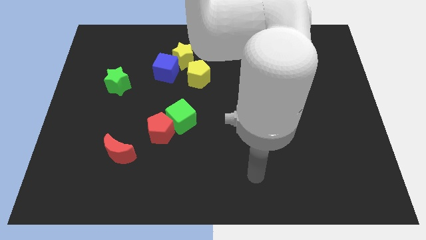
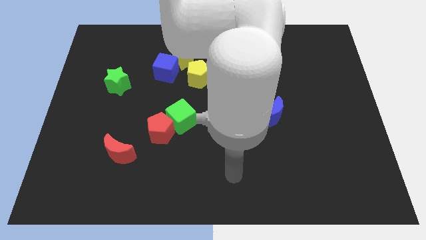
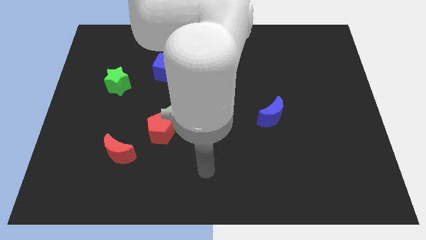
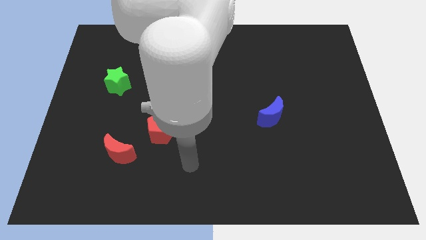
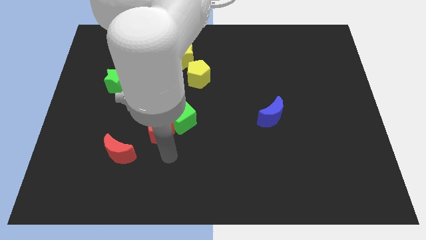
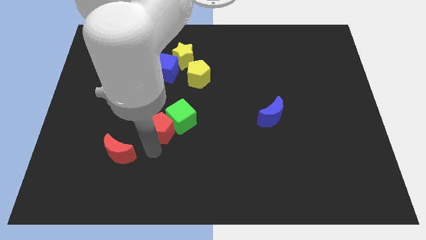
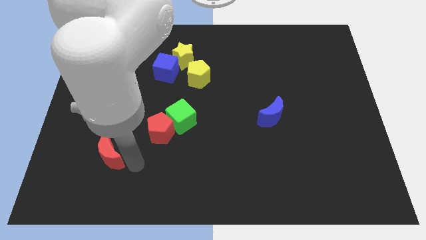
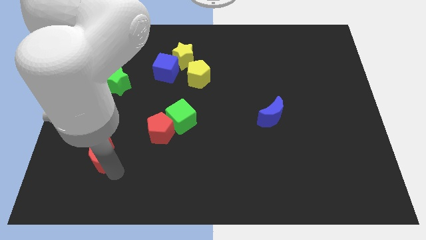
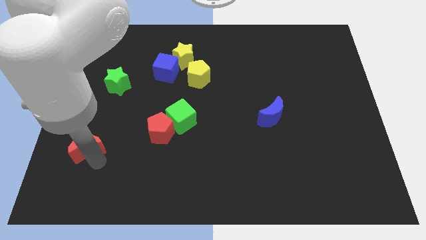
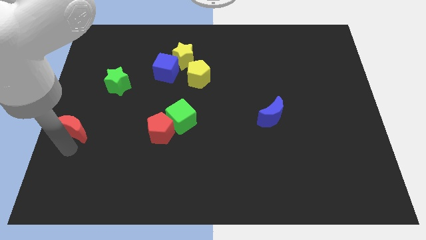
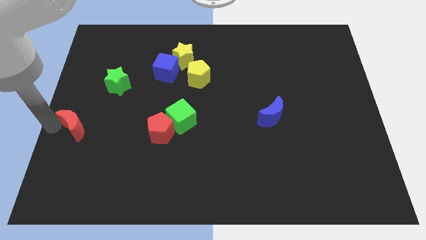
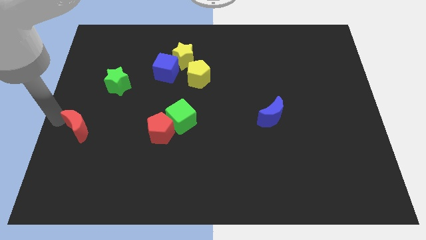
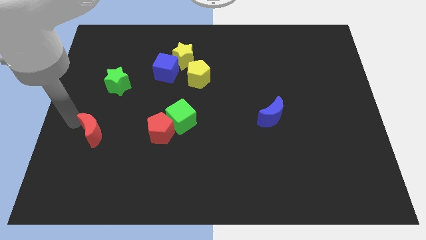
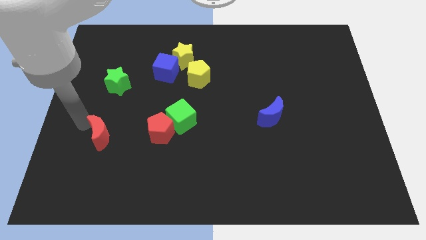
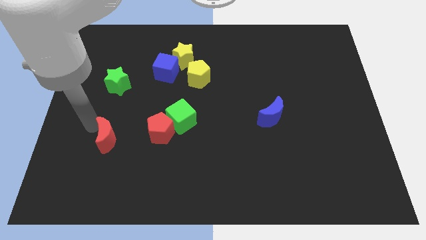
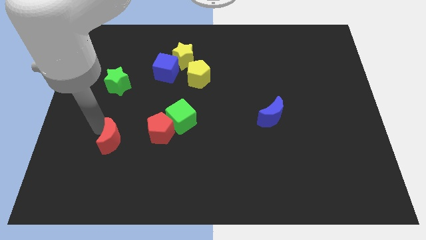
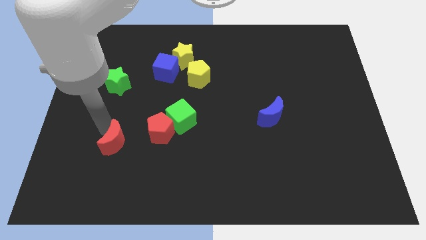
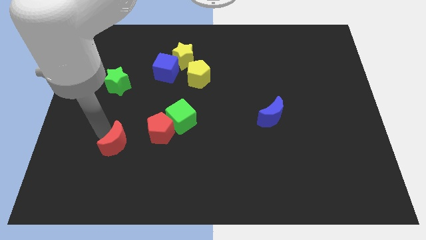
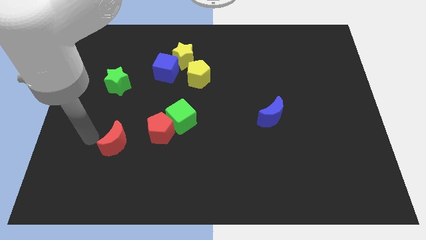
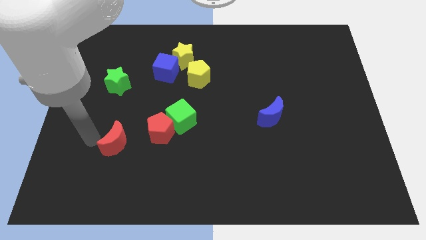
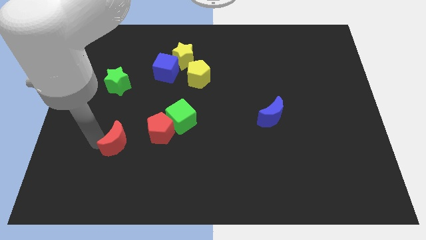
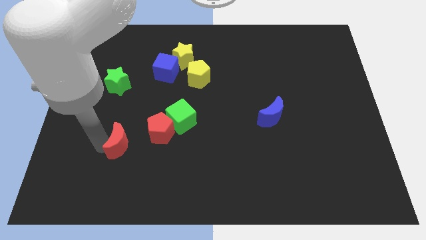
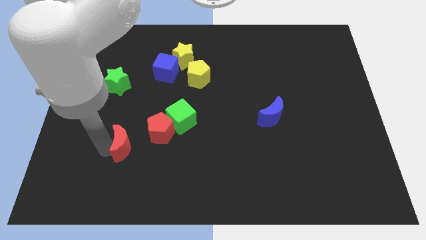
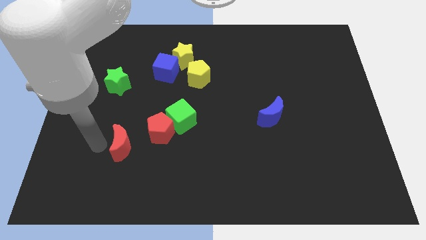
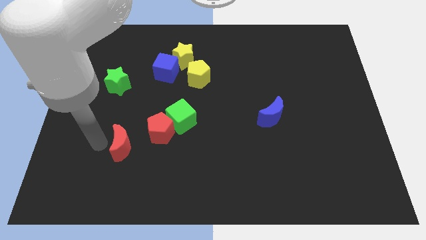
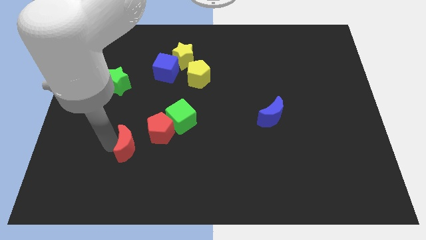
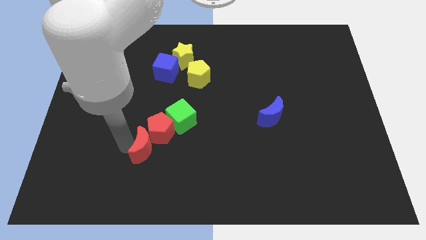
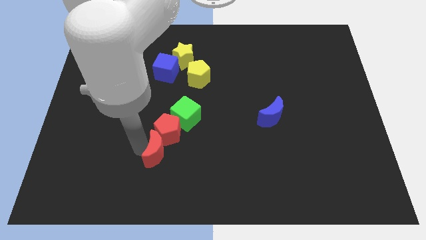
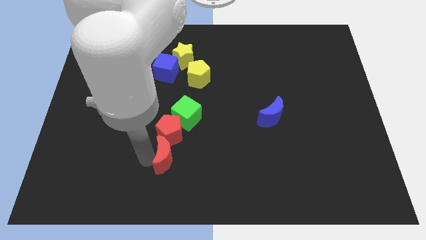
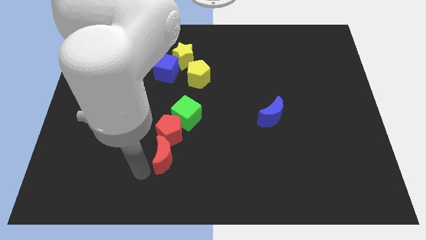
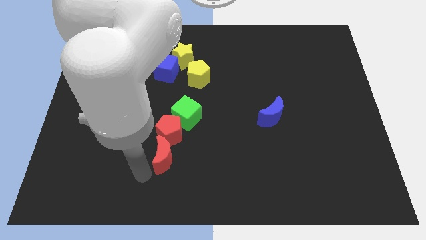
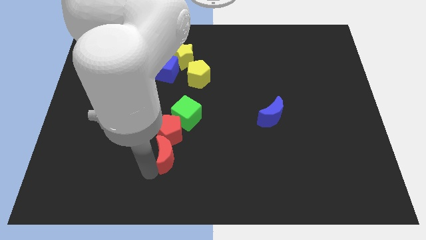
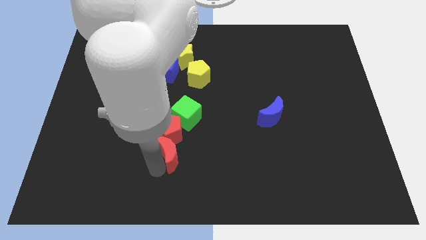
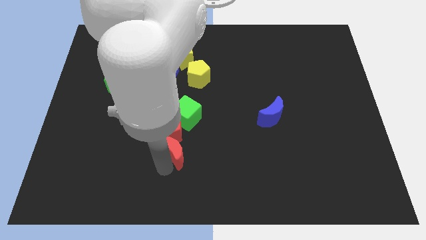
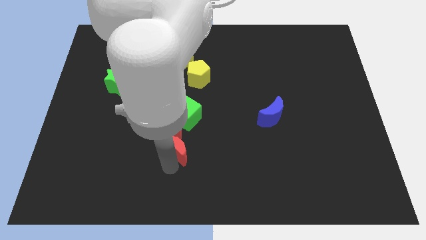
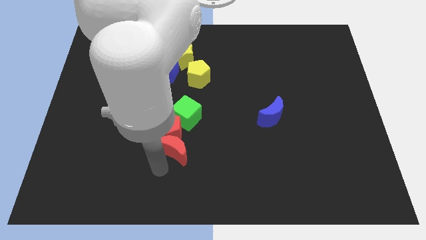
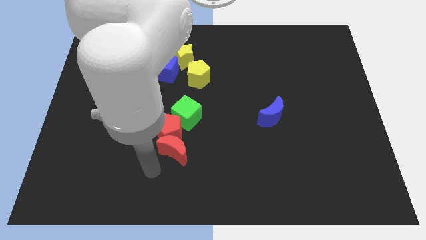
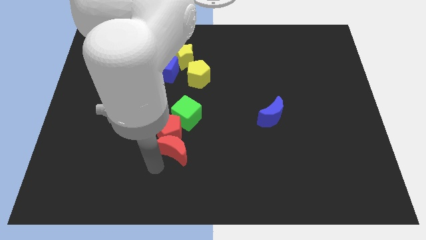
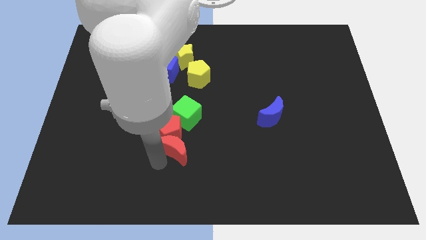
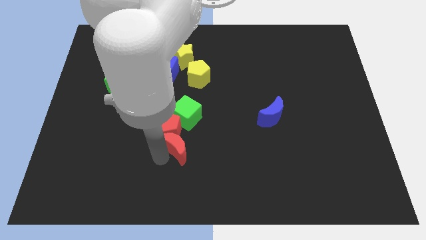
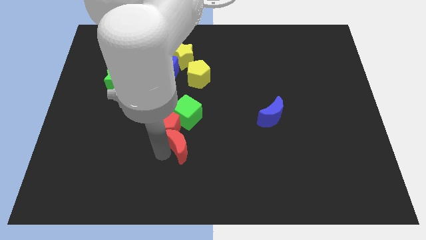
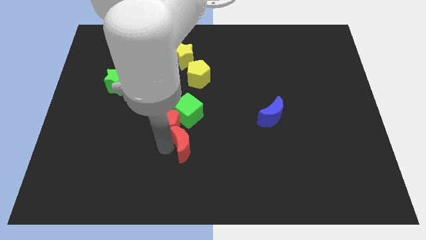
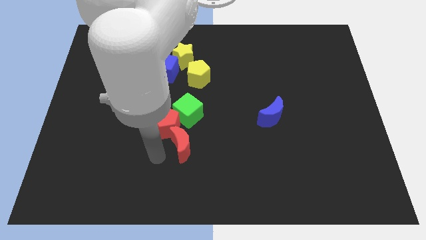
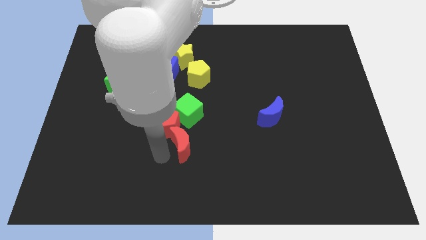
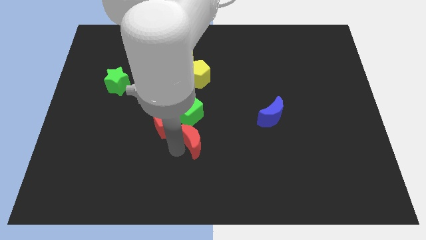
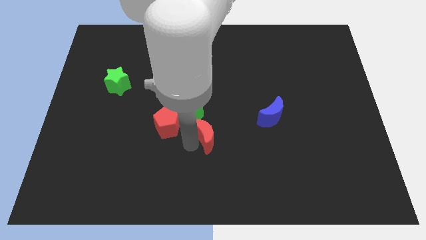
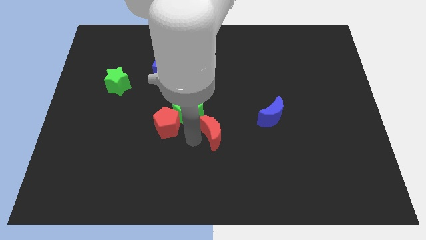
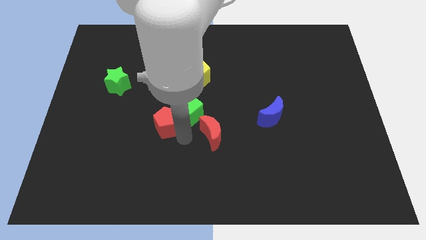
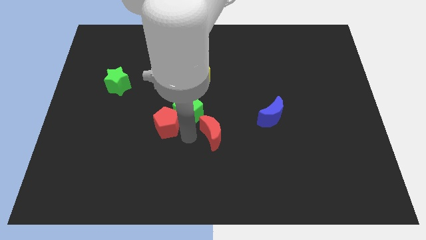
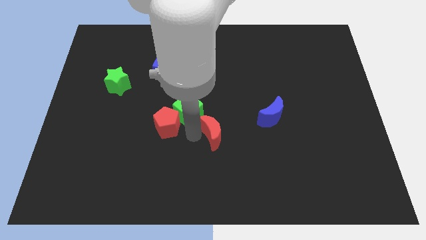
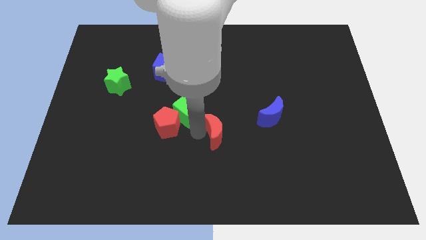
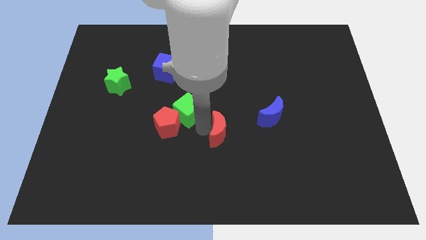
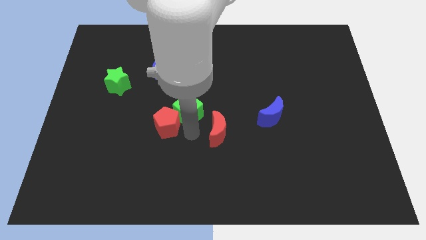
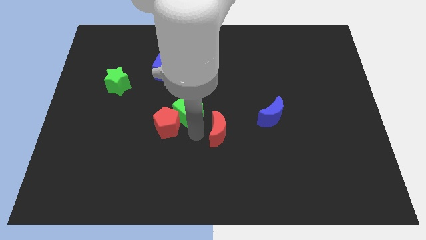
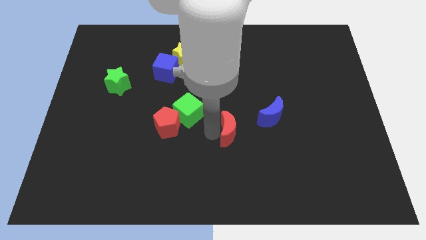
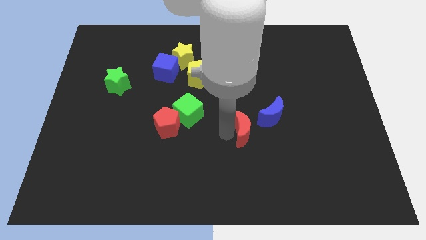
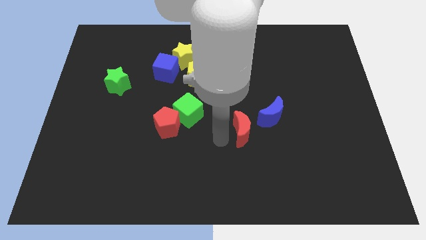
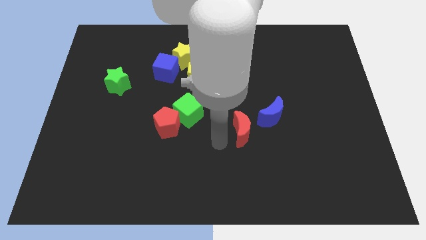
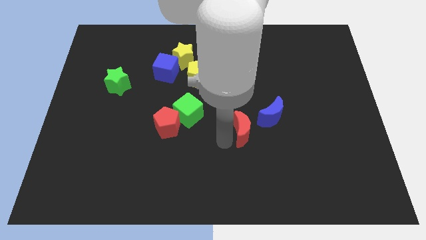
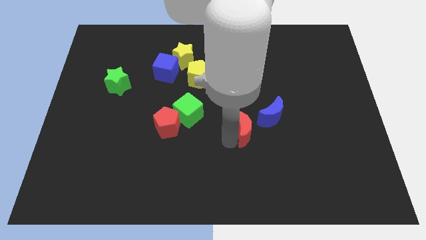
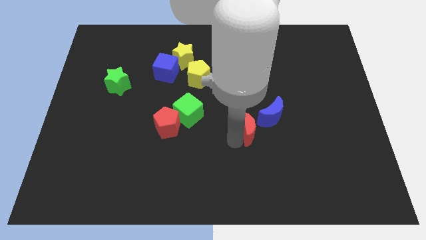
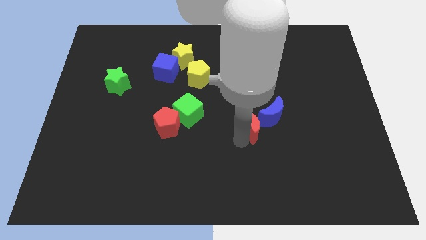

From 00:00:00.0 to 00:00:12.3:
move the red moon towards the blue moon

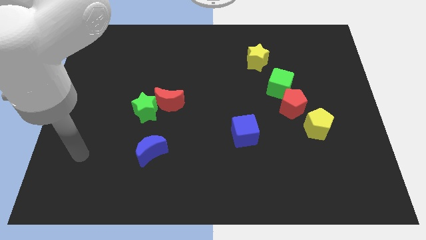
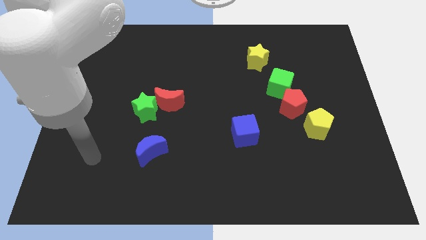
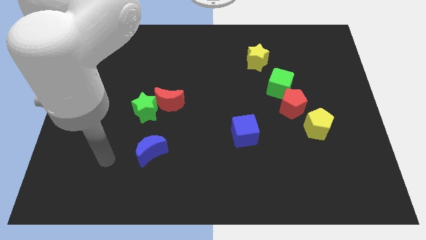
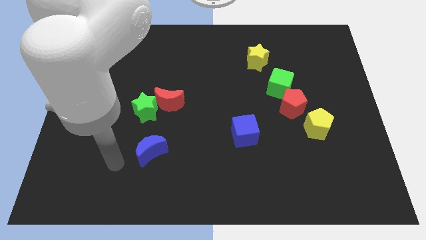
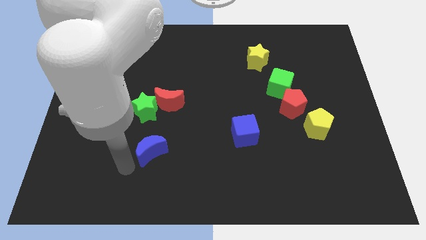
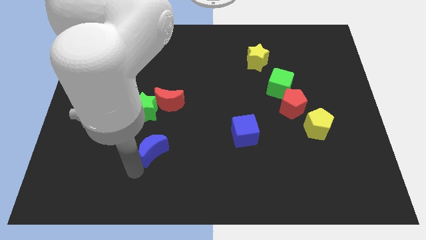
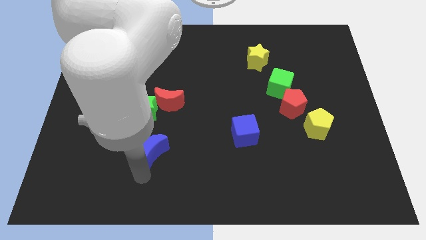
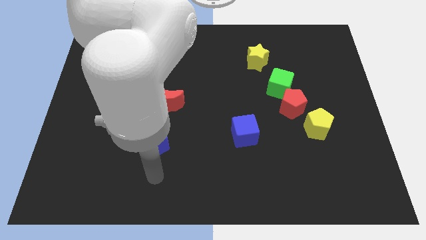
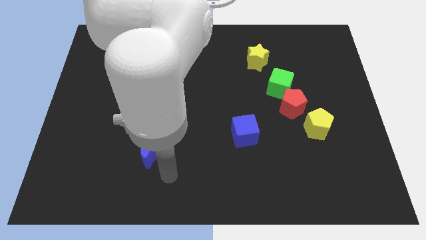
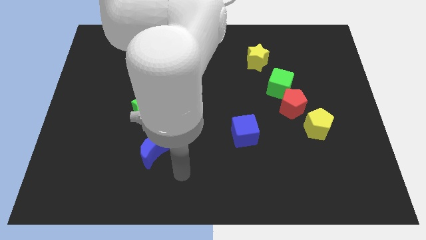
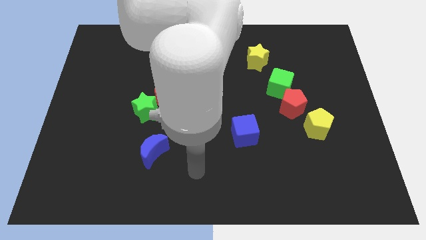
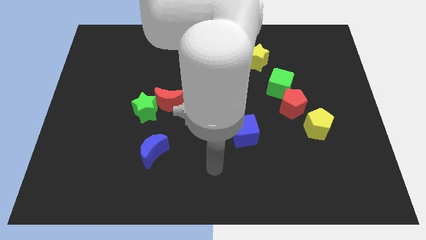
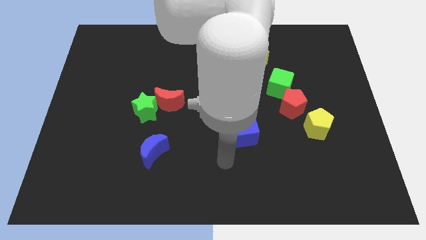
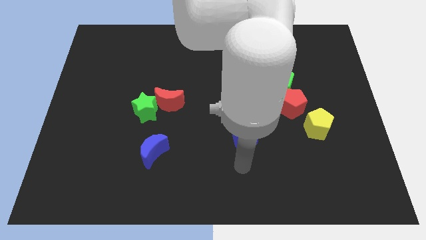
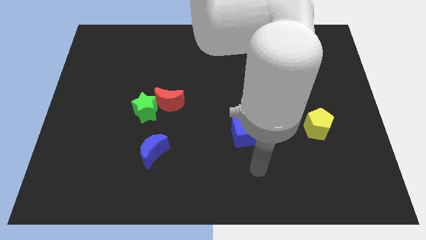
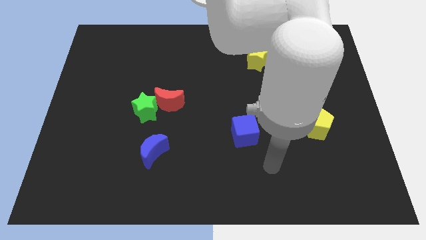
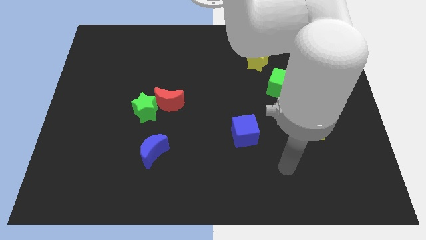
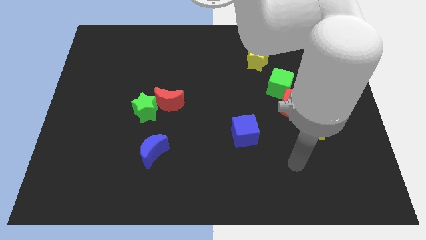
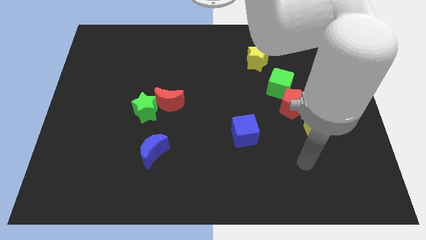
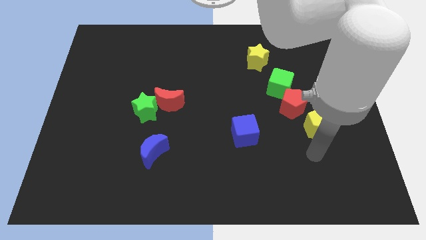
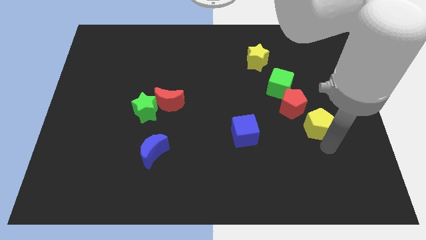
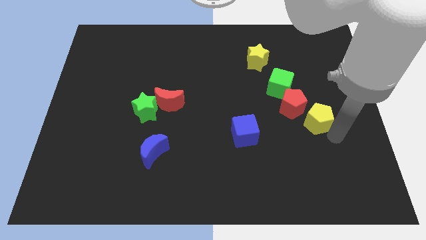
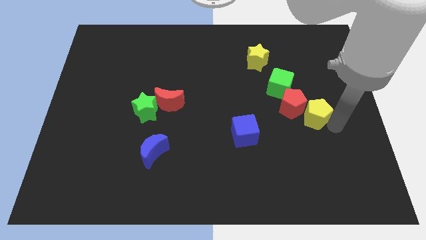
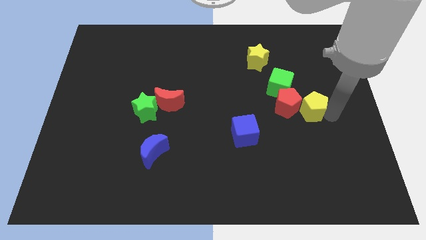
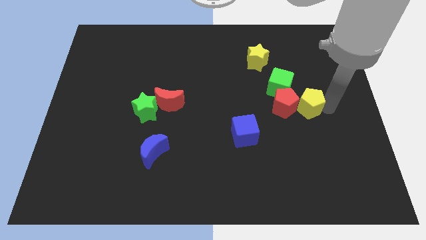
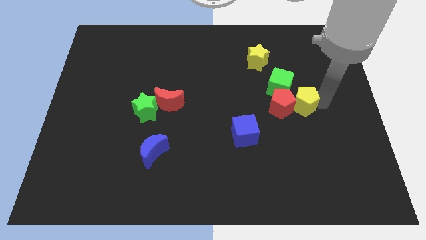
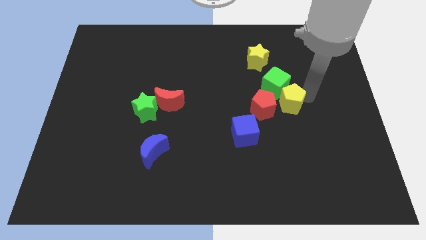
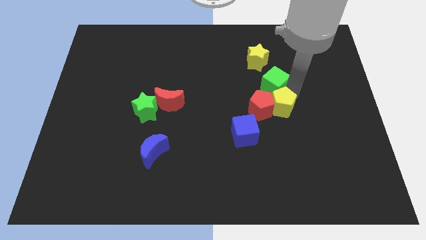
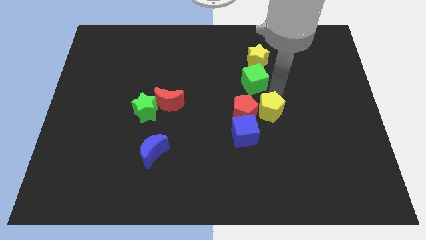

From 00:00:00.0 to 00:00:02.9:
put the red pentagon close to the blue cube
